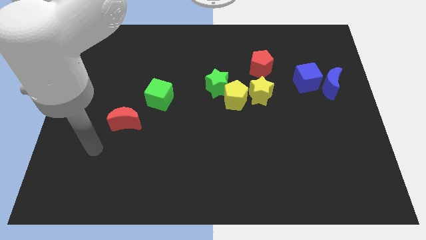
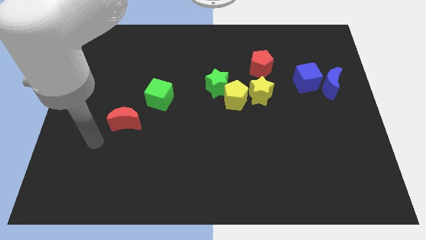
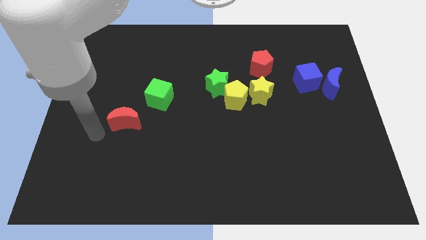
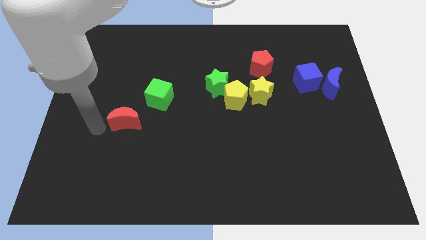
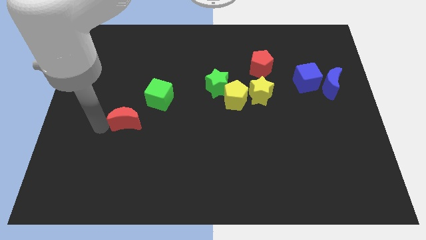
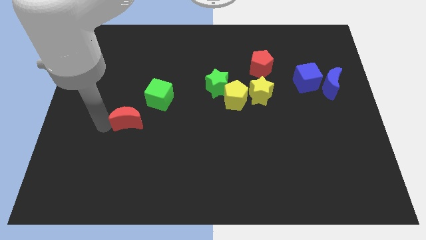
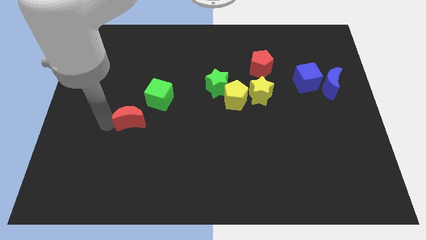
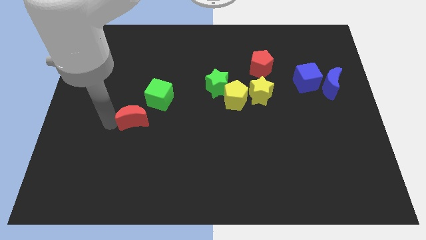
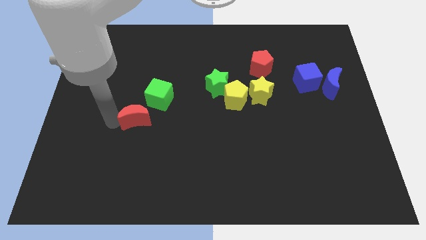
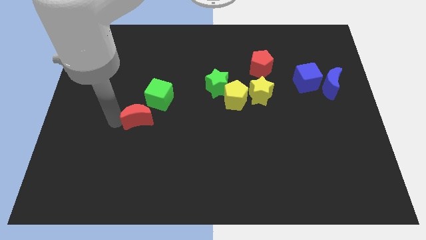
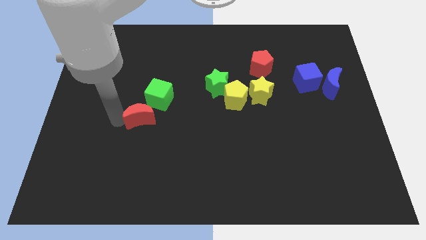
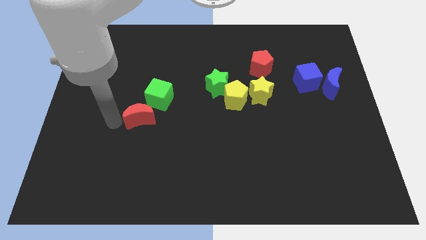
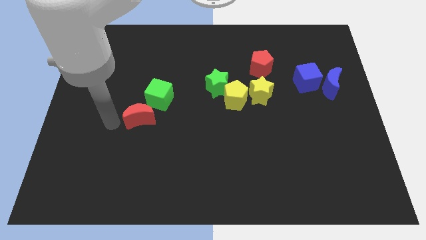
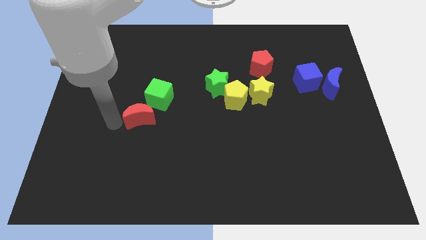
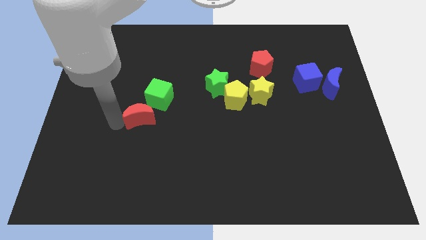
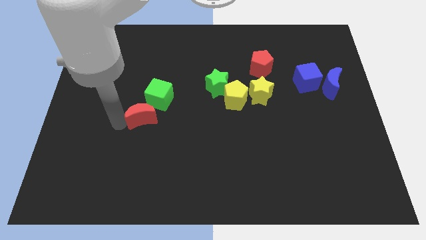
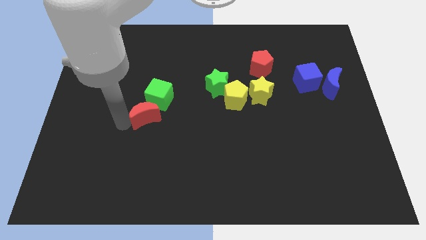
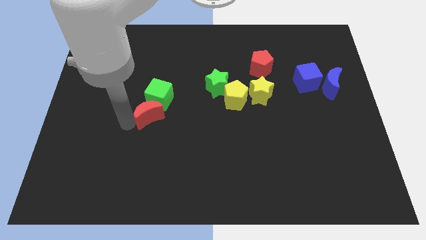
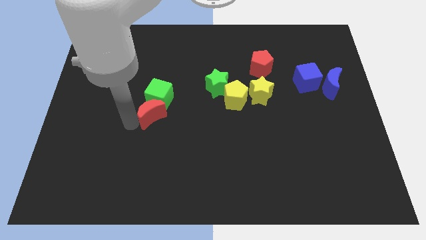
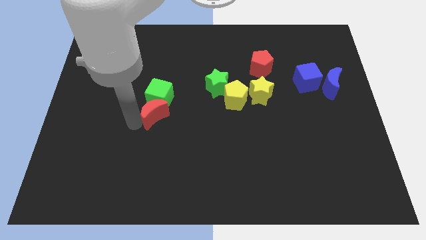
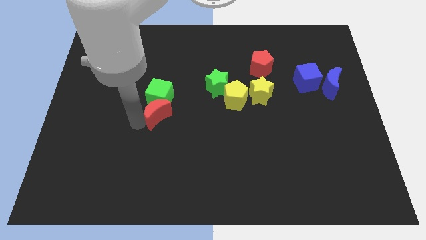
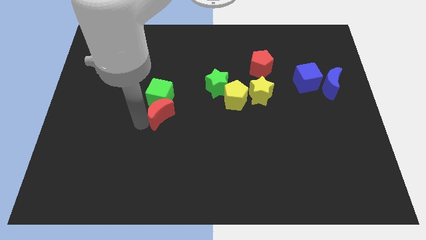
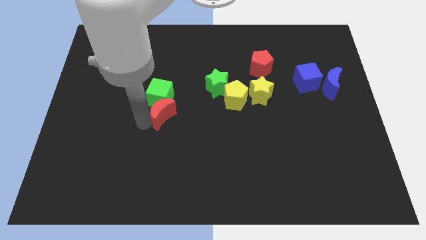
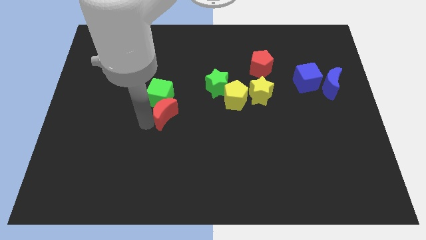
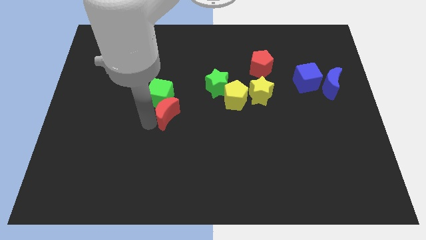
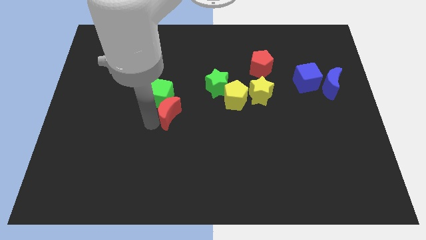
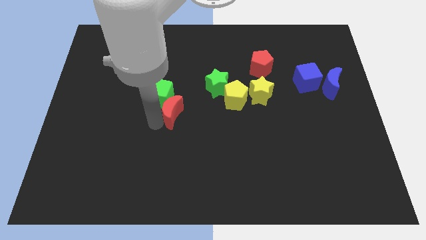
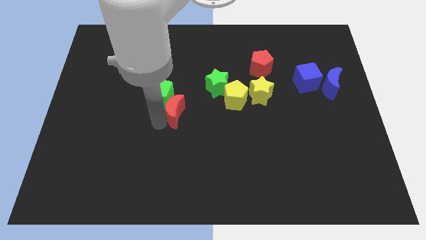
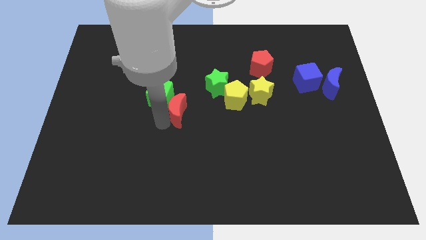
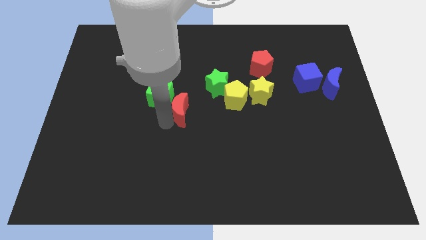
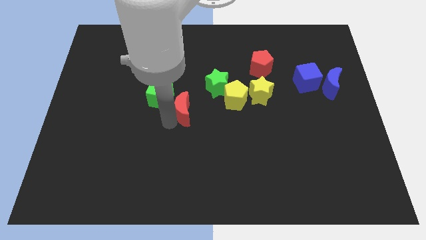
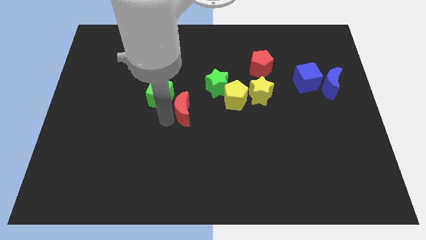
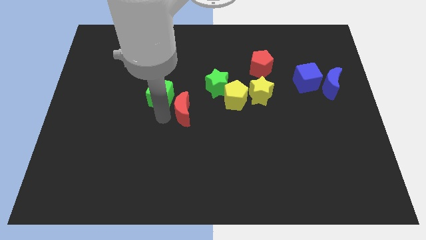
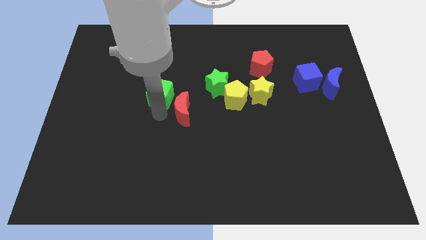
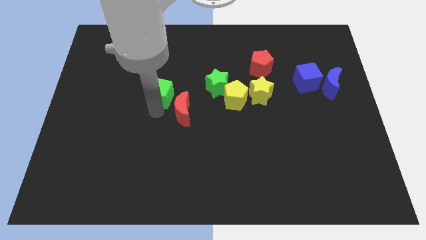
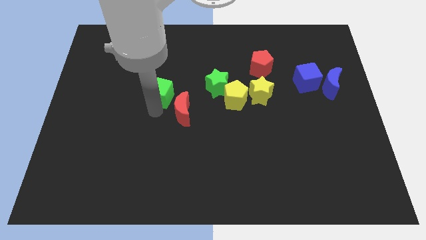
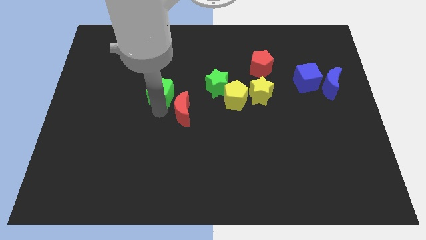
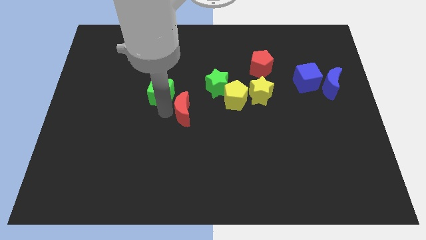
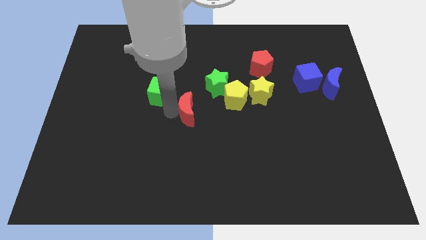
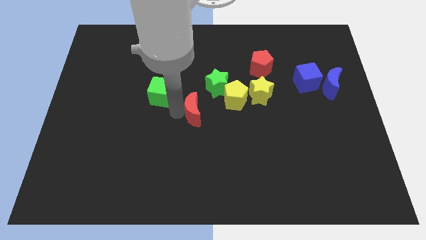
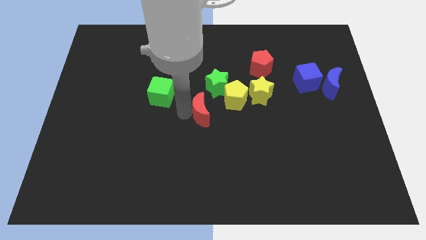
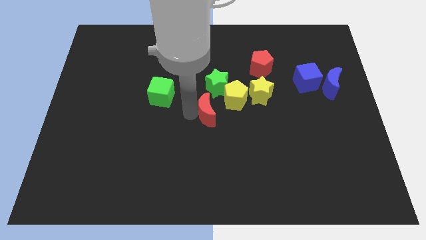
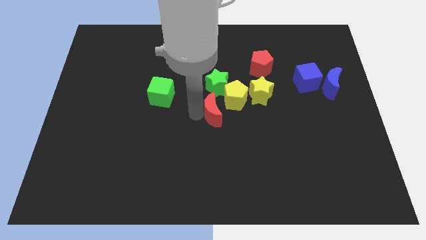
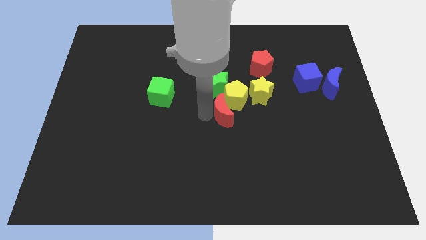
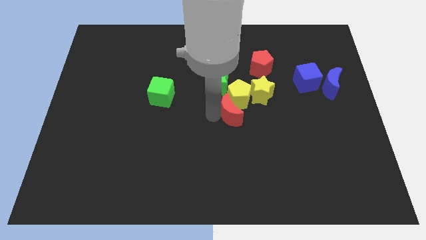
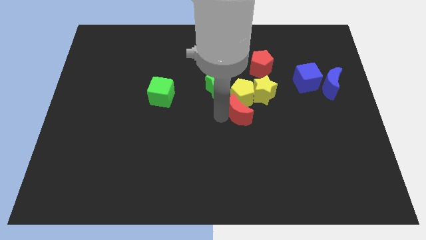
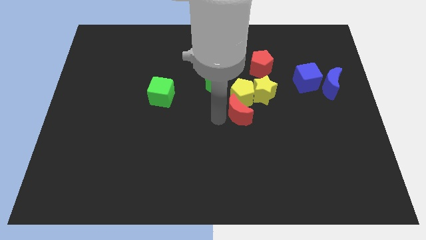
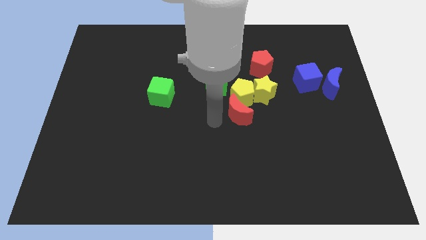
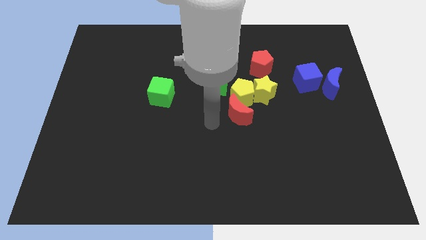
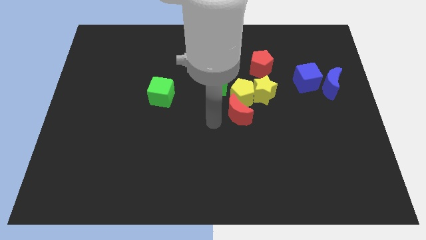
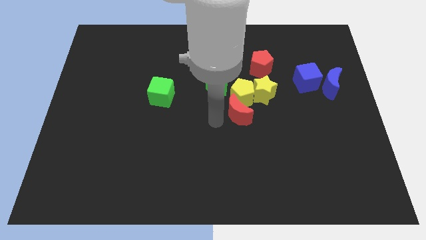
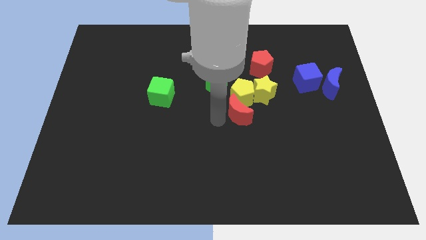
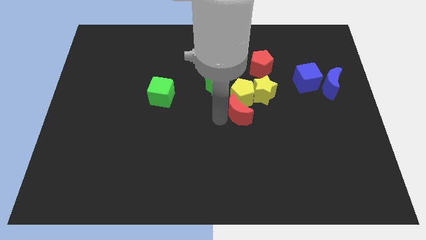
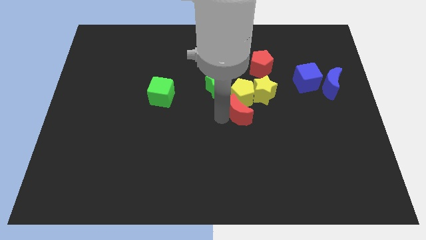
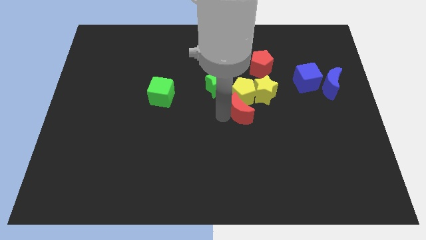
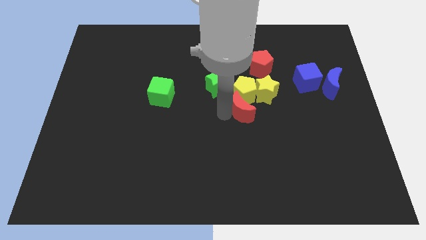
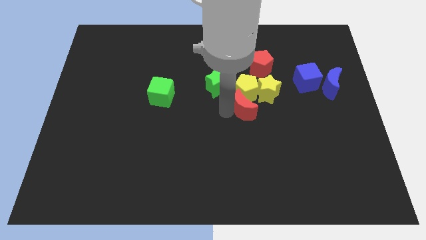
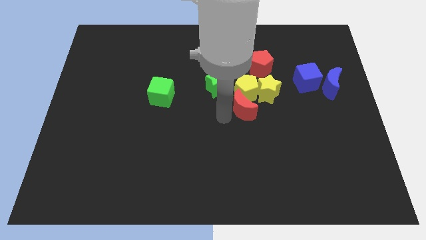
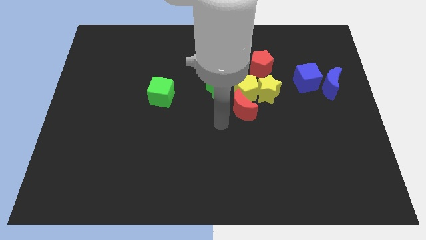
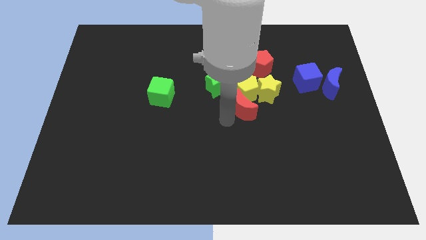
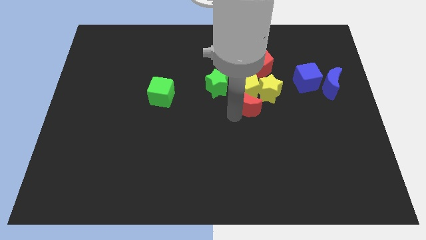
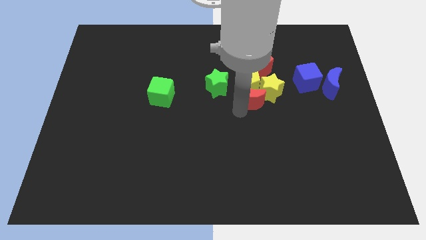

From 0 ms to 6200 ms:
push the red moon towards the yellow star

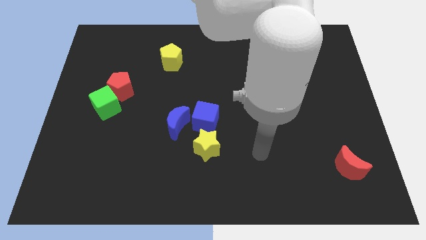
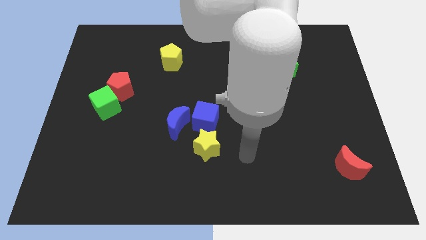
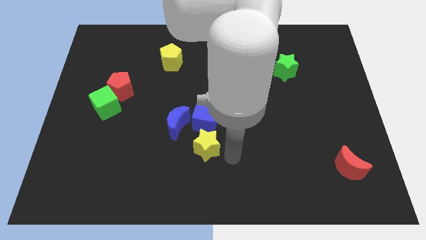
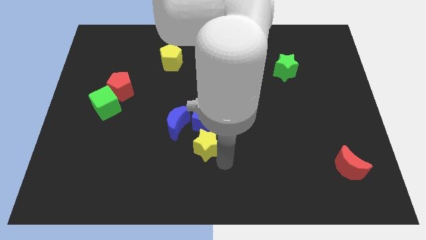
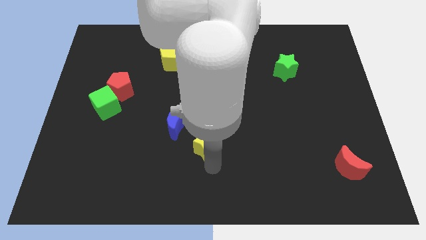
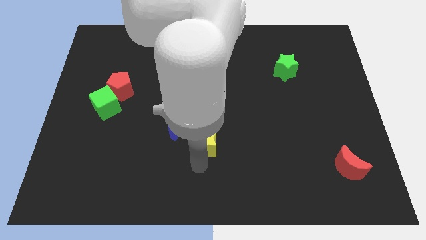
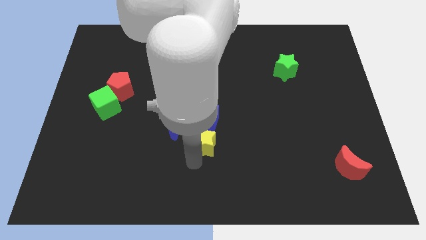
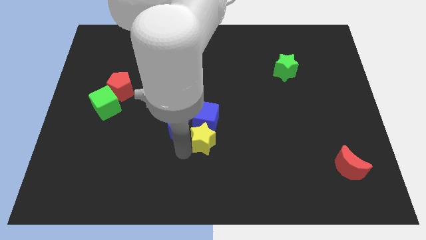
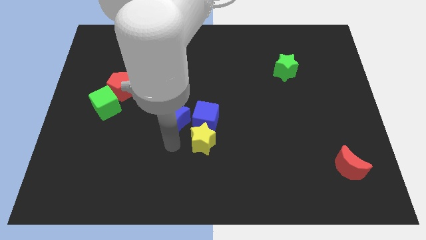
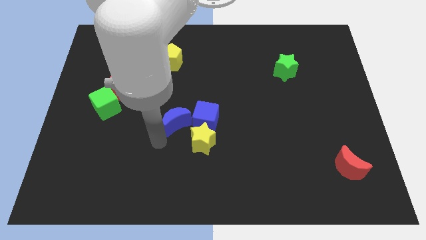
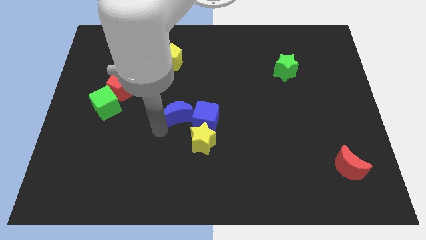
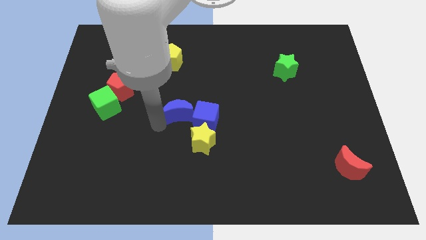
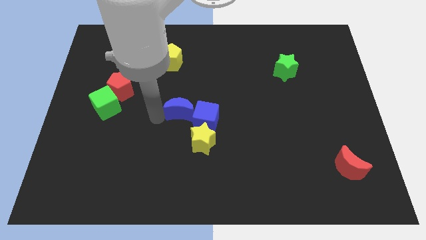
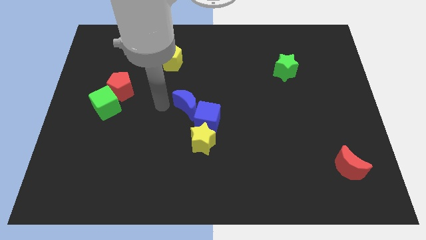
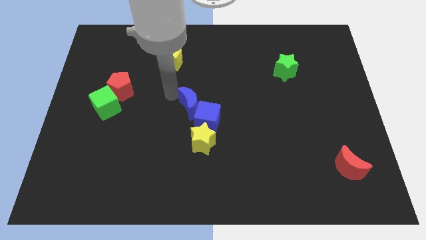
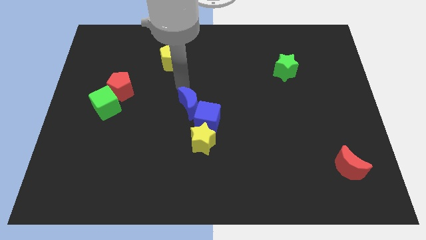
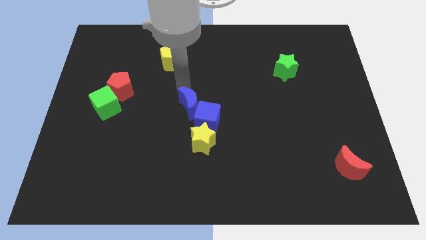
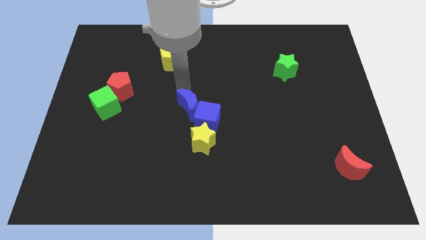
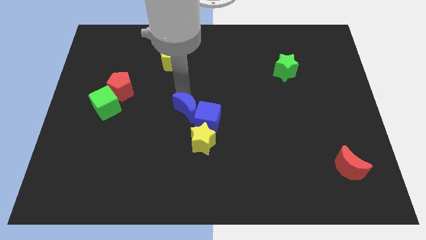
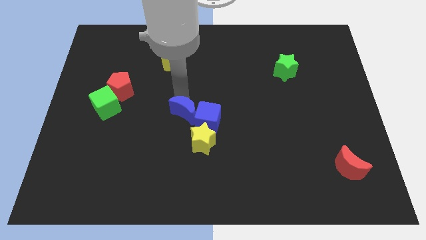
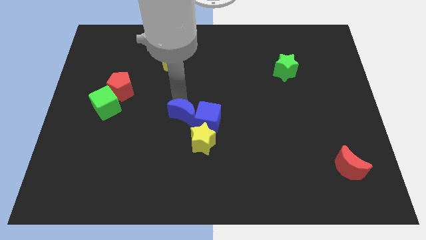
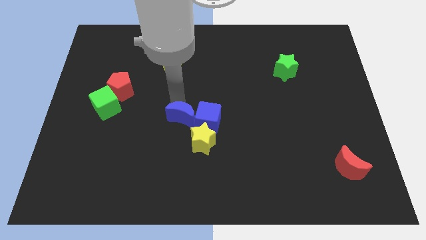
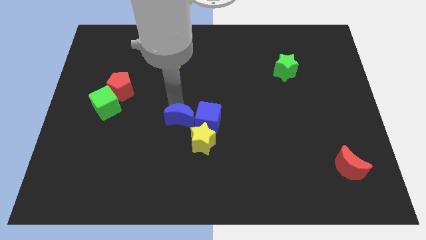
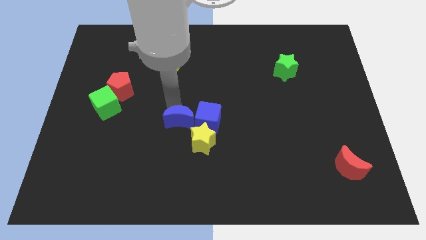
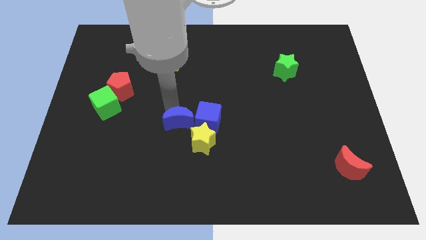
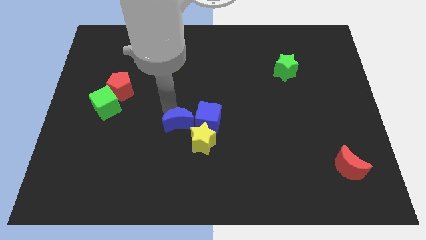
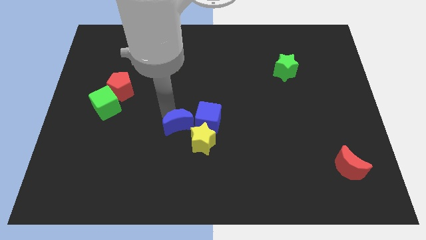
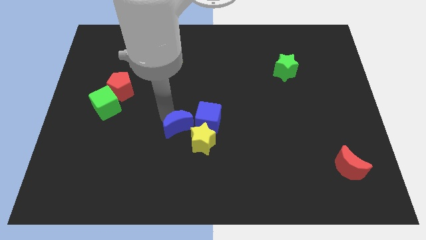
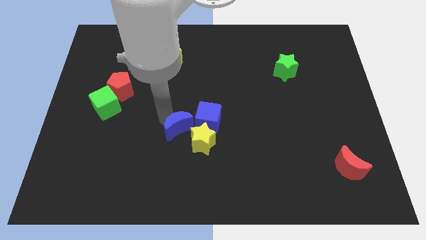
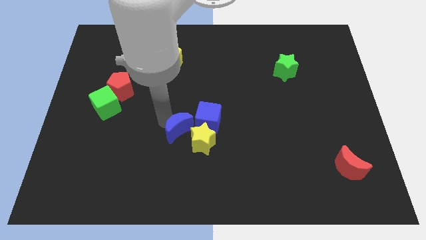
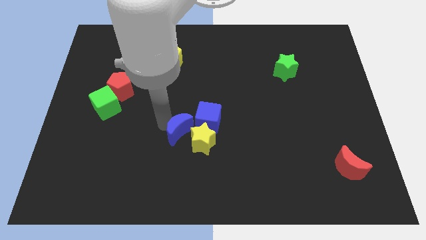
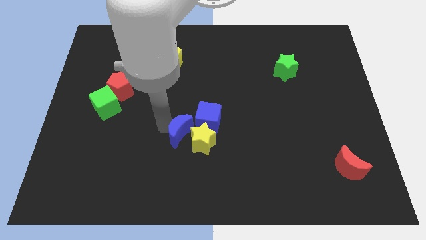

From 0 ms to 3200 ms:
push the blue moon next to the yellow star
